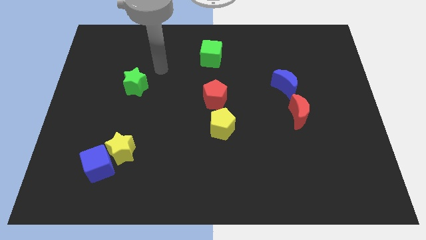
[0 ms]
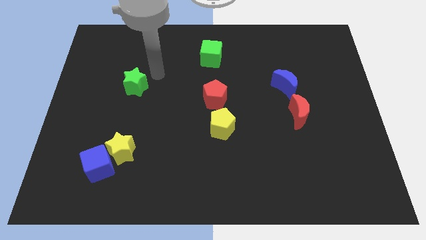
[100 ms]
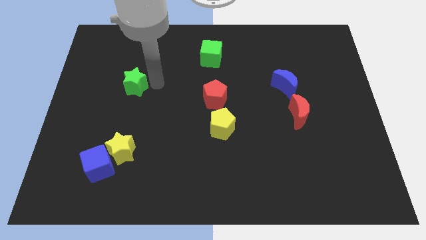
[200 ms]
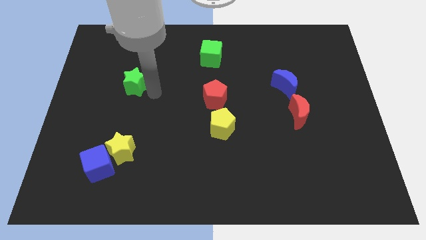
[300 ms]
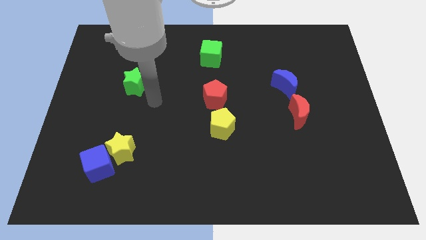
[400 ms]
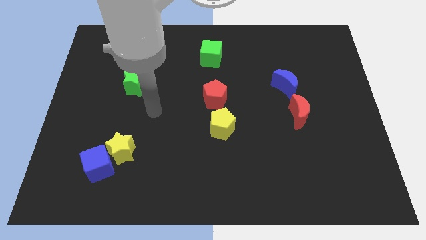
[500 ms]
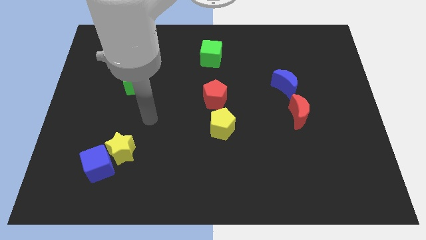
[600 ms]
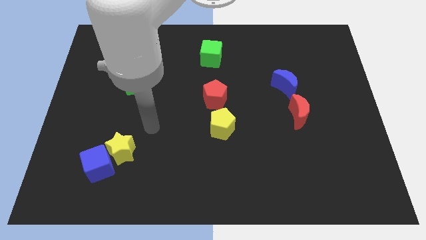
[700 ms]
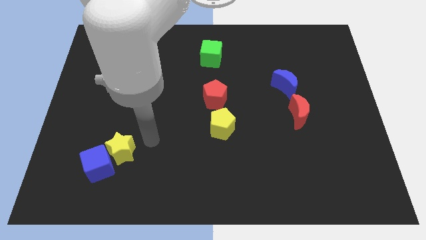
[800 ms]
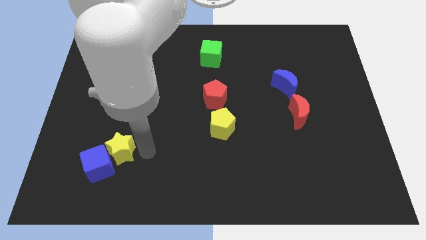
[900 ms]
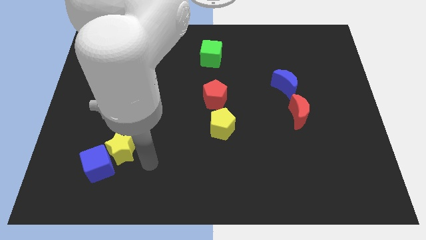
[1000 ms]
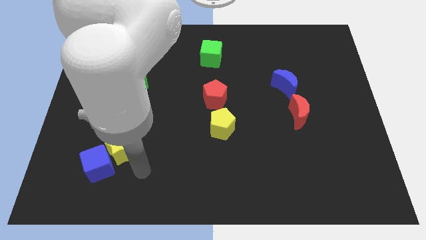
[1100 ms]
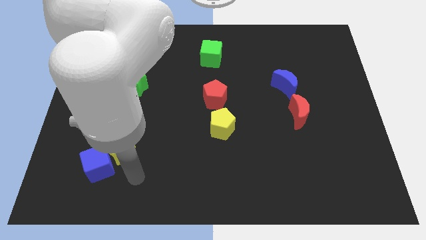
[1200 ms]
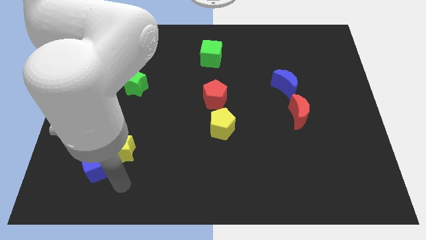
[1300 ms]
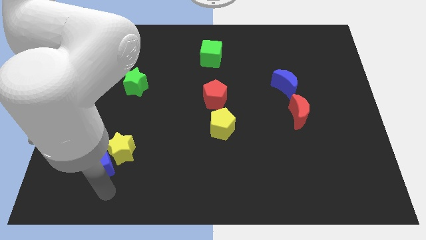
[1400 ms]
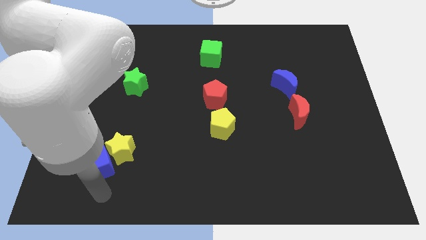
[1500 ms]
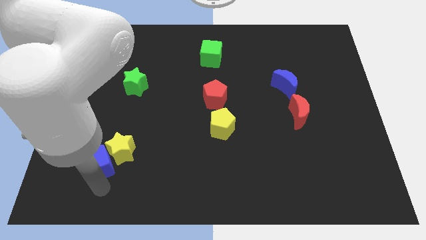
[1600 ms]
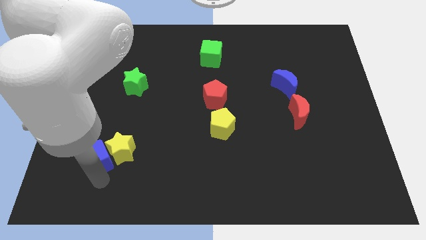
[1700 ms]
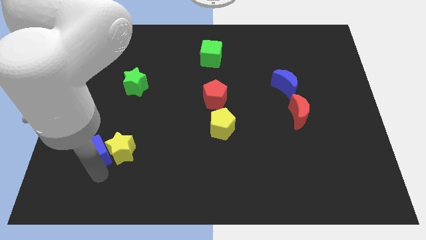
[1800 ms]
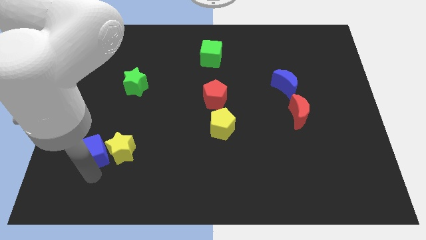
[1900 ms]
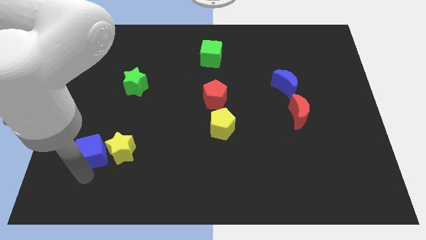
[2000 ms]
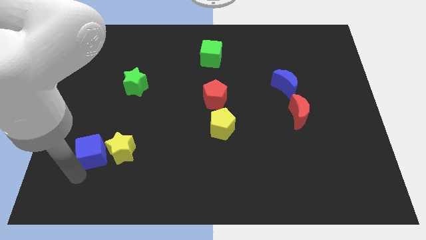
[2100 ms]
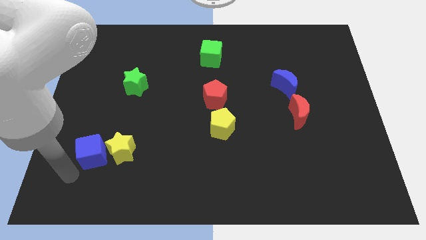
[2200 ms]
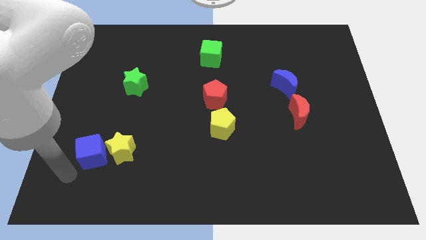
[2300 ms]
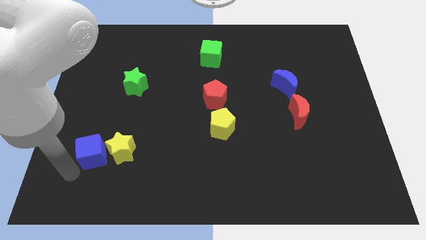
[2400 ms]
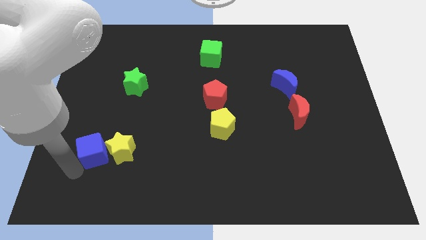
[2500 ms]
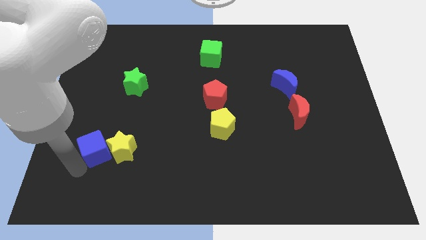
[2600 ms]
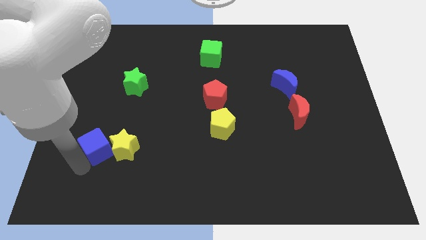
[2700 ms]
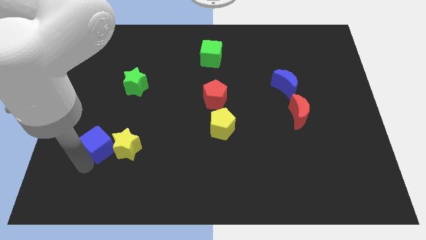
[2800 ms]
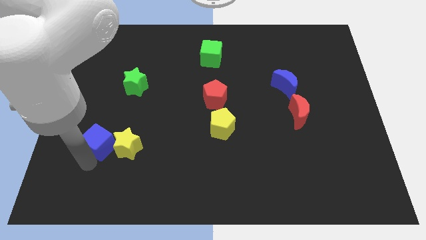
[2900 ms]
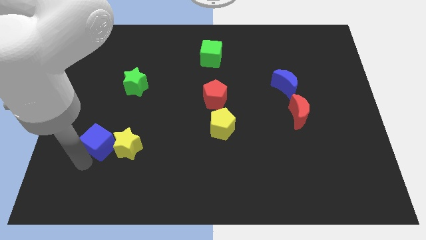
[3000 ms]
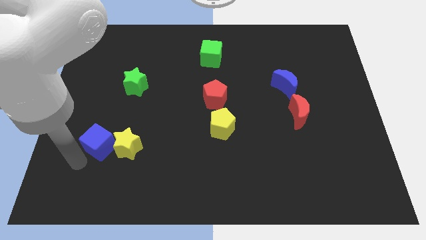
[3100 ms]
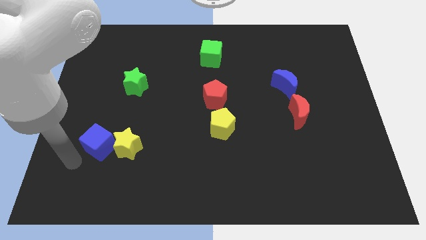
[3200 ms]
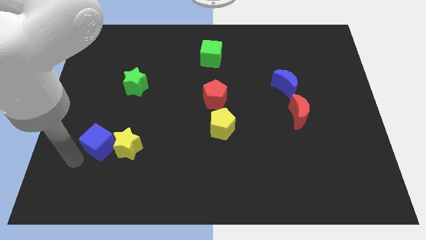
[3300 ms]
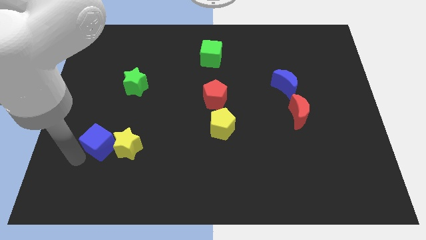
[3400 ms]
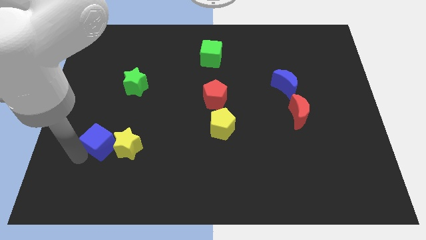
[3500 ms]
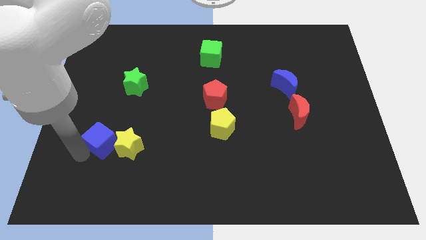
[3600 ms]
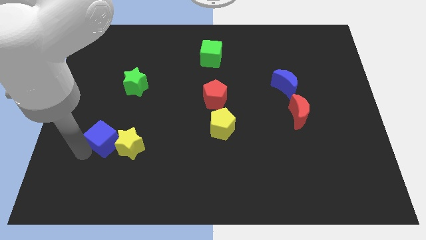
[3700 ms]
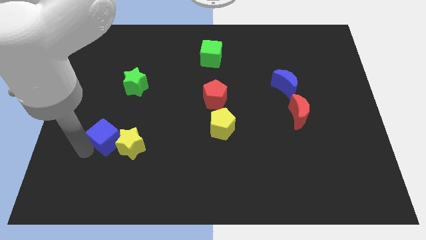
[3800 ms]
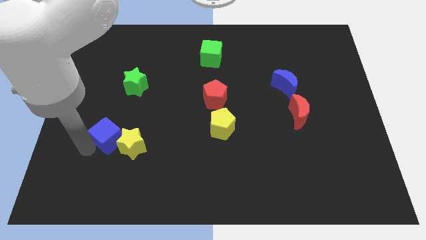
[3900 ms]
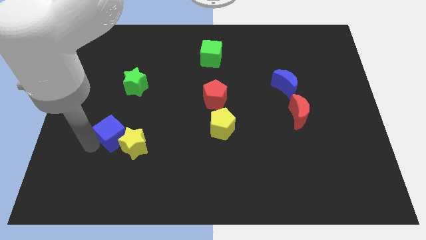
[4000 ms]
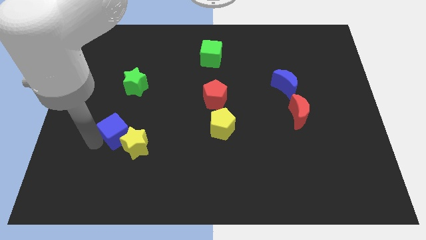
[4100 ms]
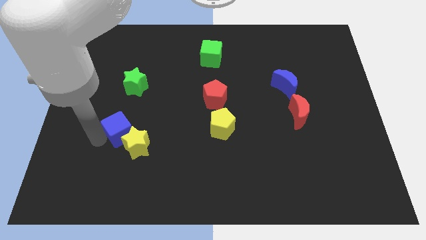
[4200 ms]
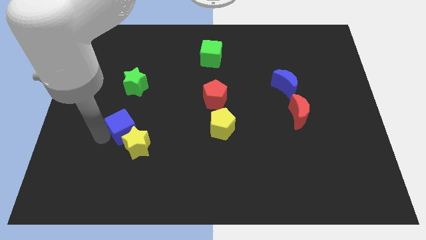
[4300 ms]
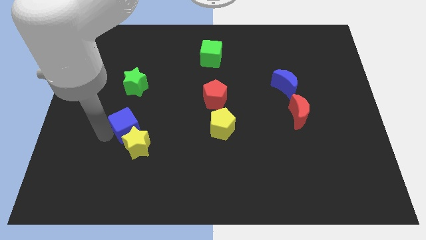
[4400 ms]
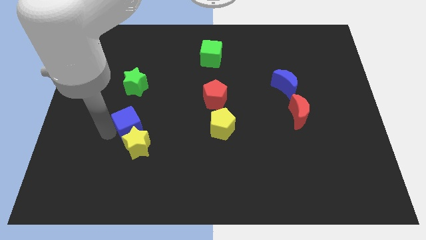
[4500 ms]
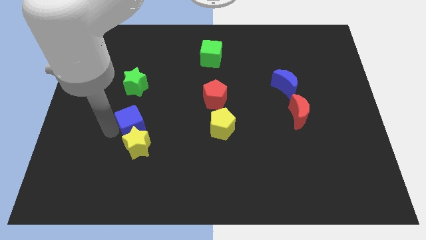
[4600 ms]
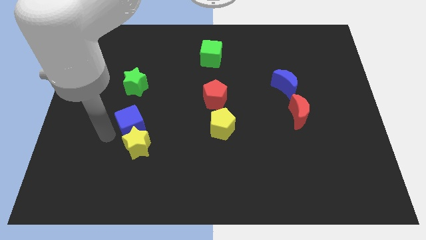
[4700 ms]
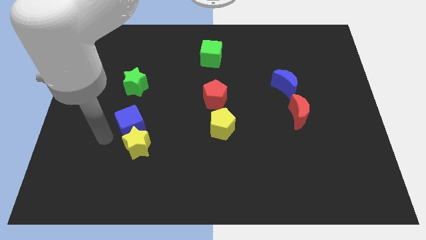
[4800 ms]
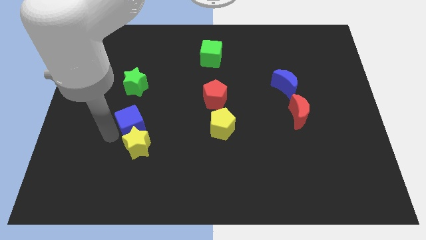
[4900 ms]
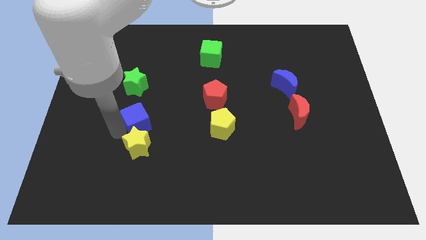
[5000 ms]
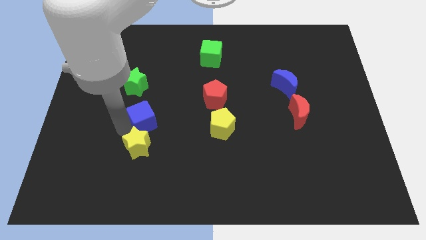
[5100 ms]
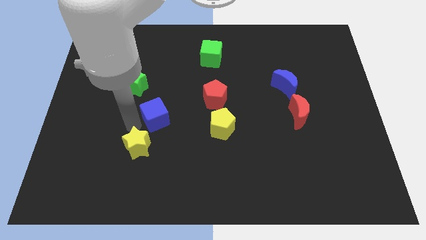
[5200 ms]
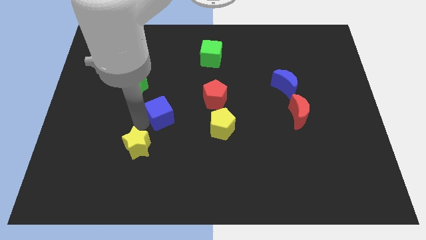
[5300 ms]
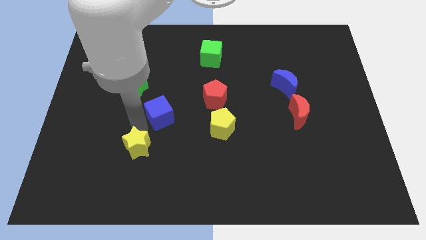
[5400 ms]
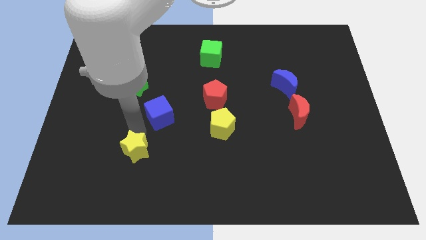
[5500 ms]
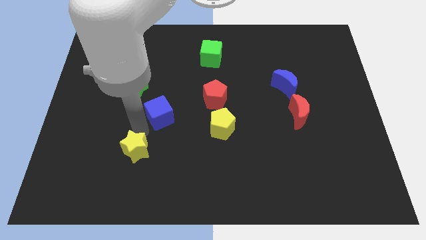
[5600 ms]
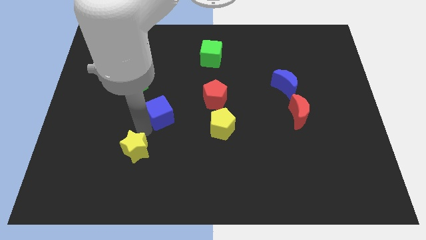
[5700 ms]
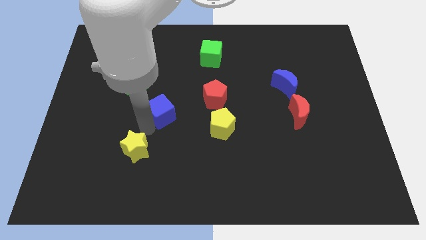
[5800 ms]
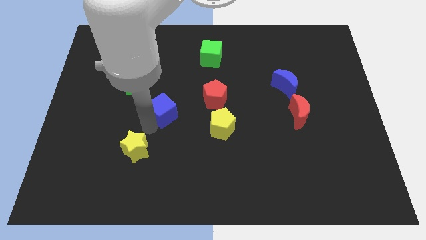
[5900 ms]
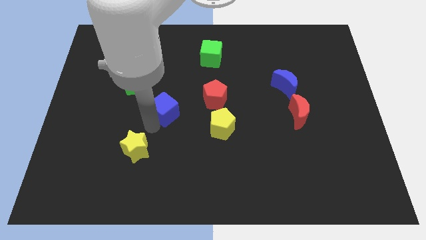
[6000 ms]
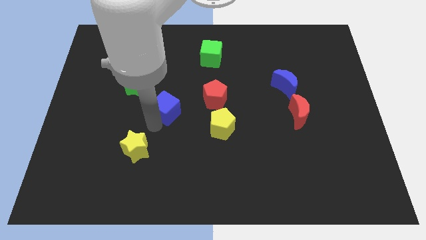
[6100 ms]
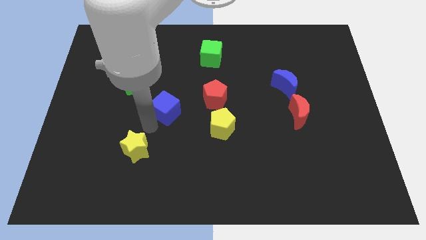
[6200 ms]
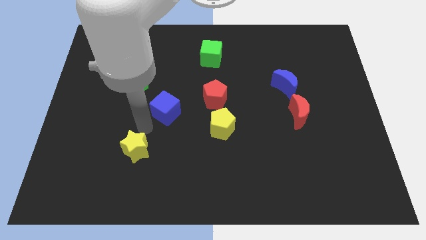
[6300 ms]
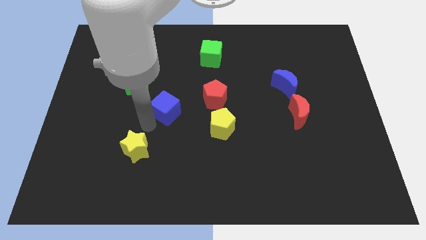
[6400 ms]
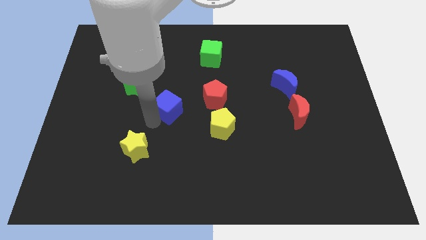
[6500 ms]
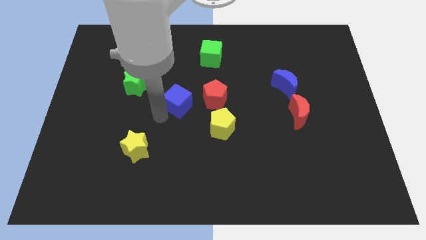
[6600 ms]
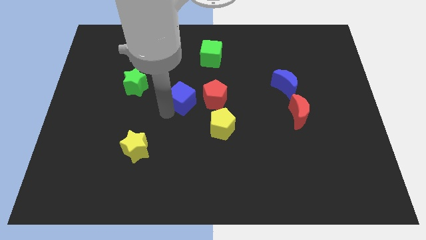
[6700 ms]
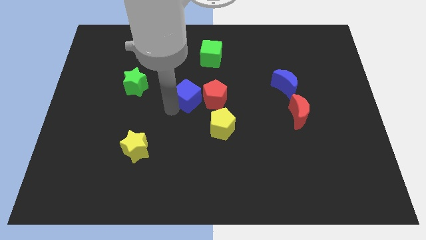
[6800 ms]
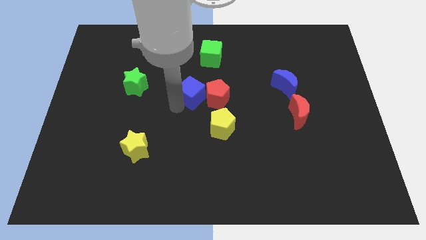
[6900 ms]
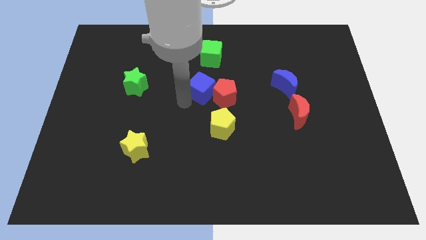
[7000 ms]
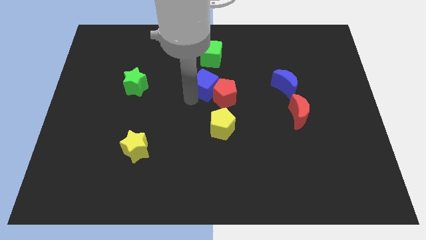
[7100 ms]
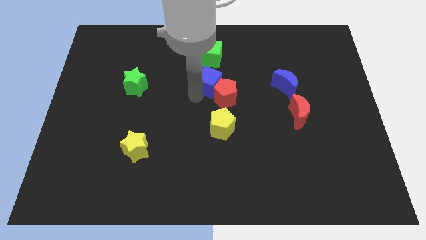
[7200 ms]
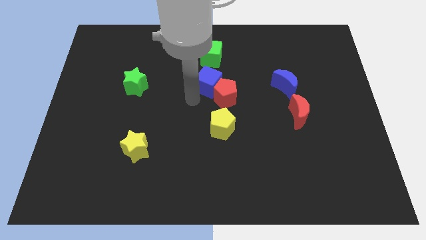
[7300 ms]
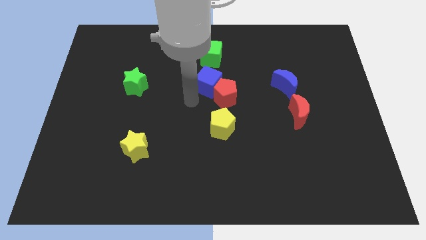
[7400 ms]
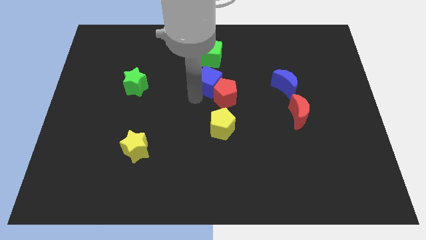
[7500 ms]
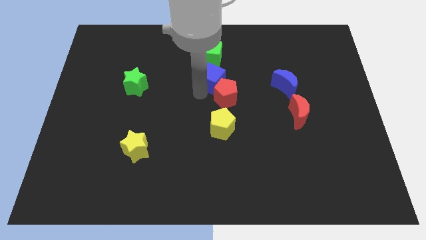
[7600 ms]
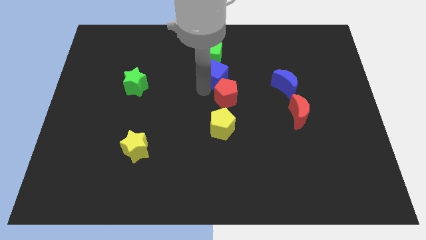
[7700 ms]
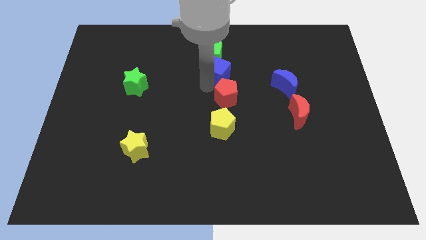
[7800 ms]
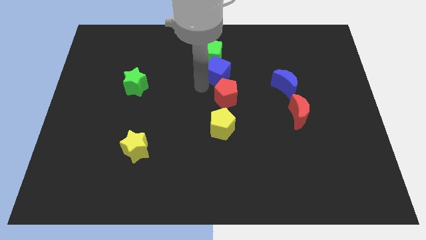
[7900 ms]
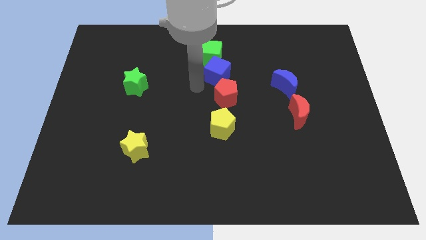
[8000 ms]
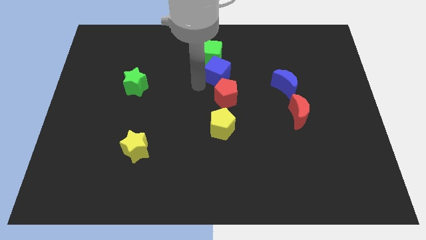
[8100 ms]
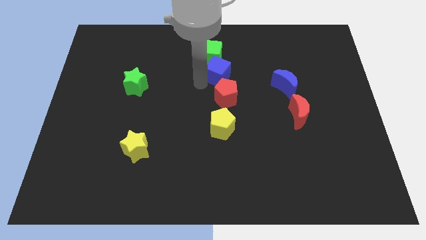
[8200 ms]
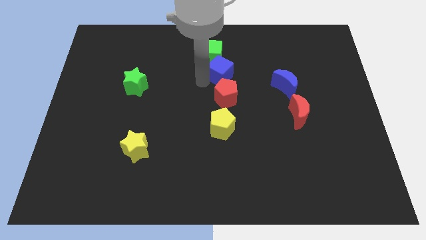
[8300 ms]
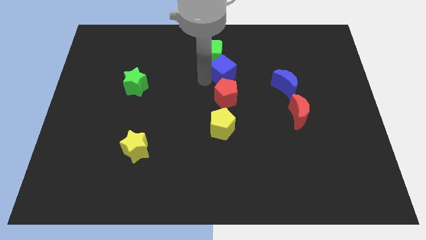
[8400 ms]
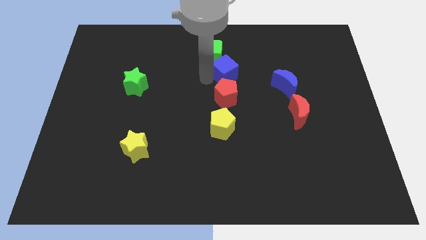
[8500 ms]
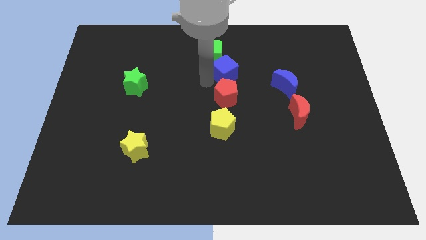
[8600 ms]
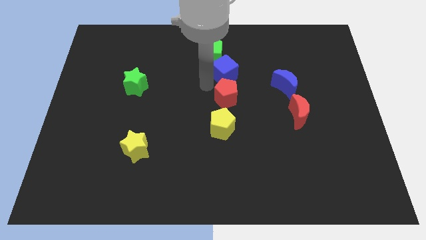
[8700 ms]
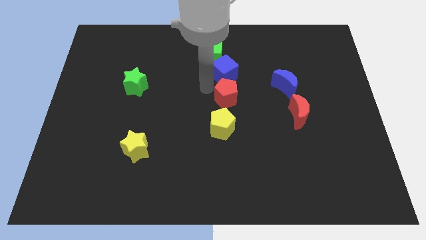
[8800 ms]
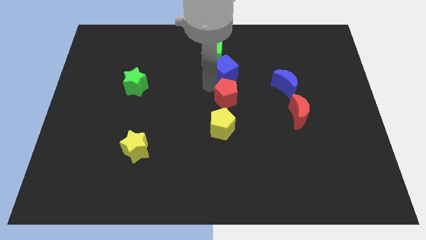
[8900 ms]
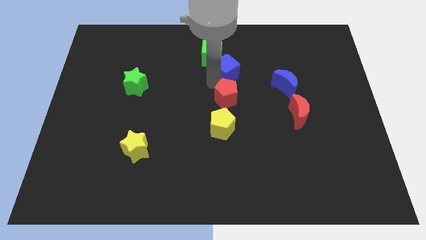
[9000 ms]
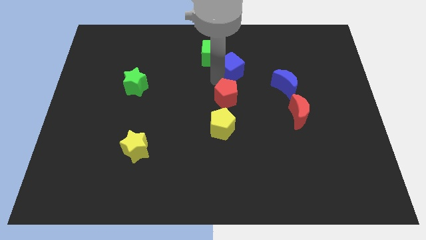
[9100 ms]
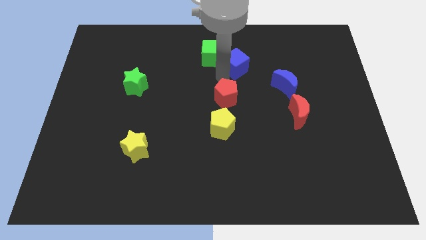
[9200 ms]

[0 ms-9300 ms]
put the blue cube to the right side of the green cube
